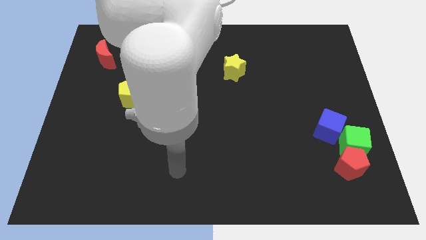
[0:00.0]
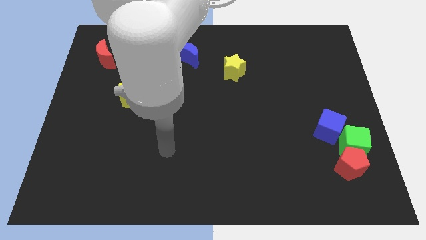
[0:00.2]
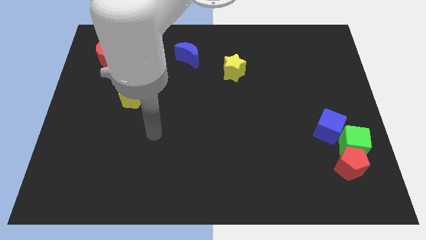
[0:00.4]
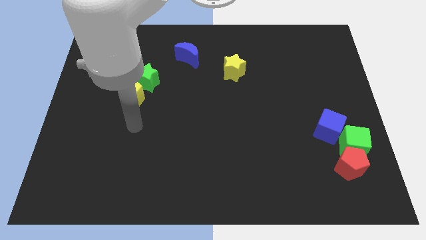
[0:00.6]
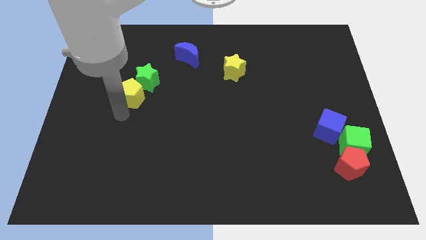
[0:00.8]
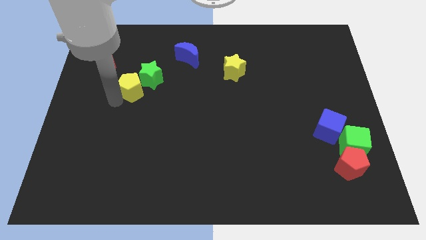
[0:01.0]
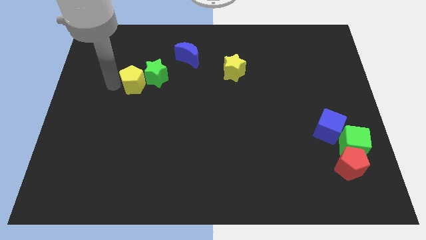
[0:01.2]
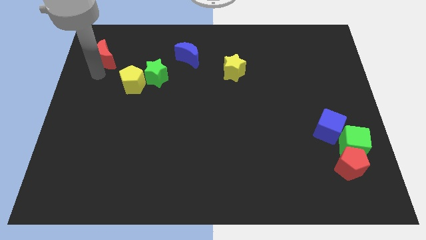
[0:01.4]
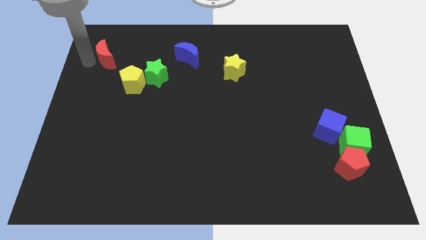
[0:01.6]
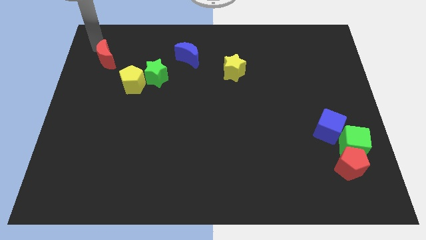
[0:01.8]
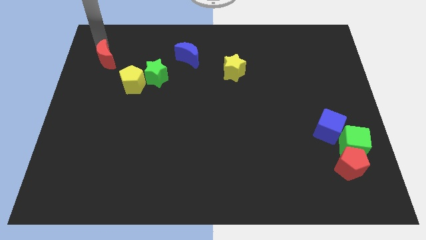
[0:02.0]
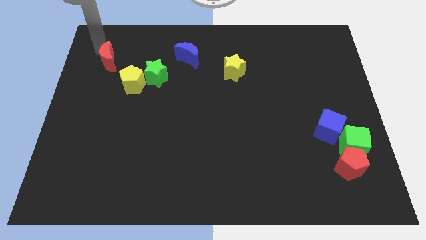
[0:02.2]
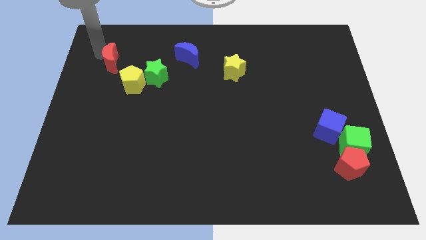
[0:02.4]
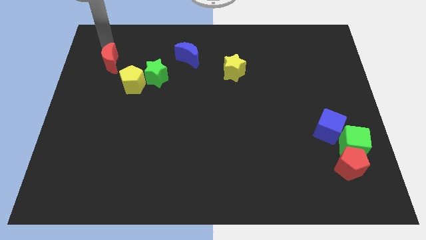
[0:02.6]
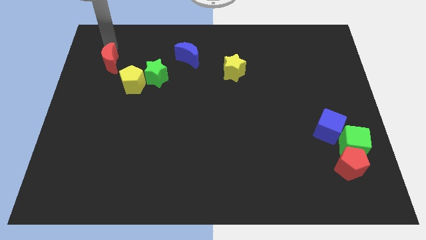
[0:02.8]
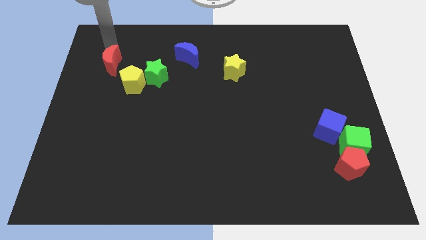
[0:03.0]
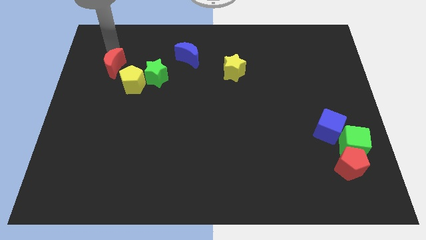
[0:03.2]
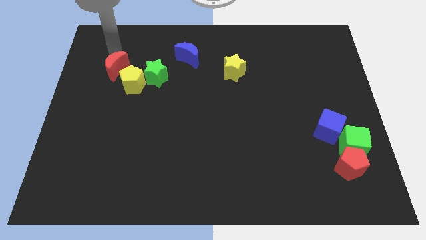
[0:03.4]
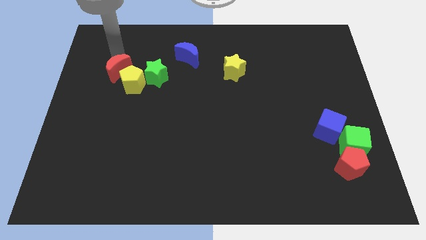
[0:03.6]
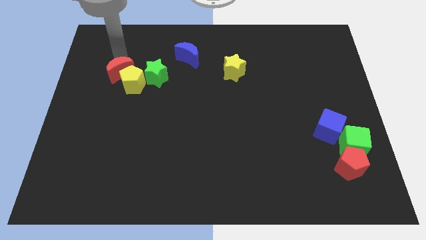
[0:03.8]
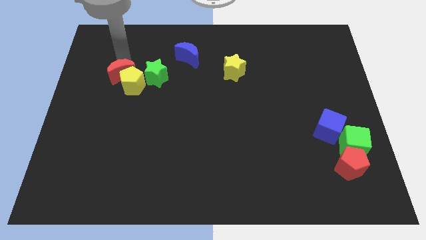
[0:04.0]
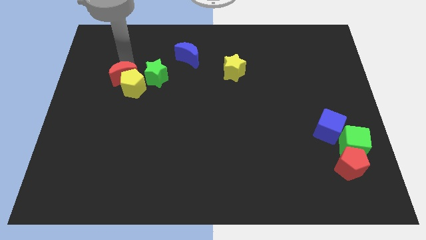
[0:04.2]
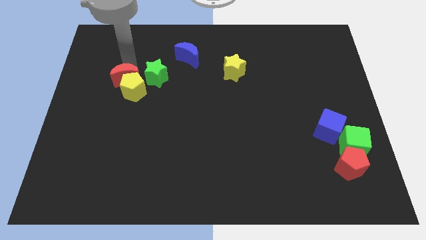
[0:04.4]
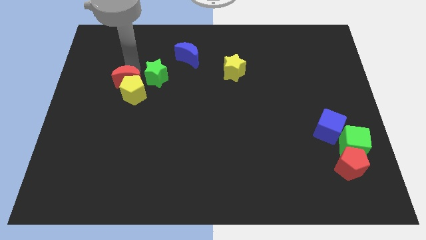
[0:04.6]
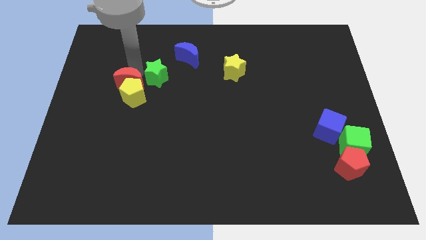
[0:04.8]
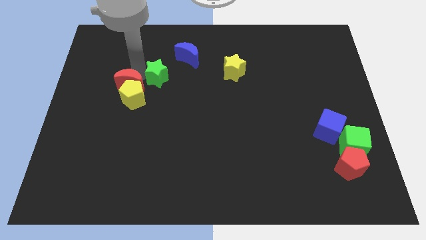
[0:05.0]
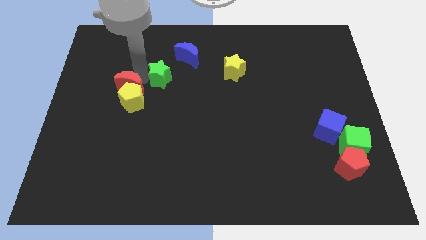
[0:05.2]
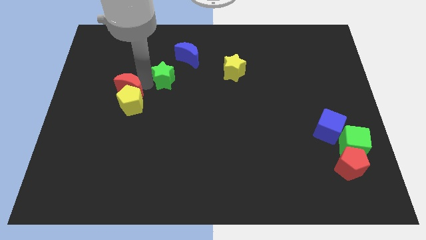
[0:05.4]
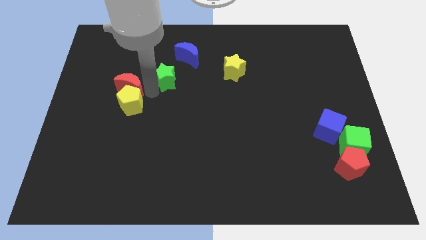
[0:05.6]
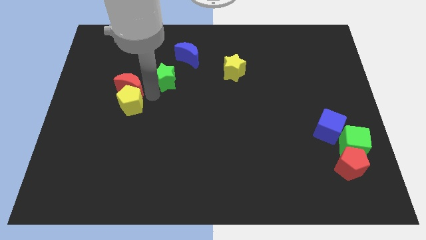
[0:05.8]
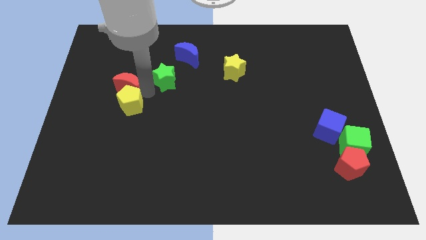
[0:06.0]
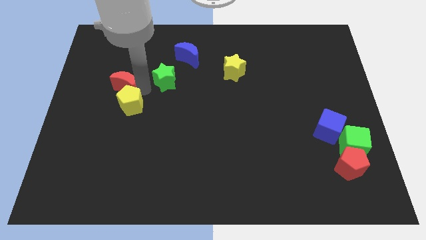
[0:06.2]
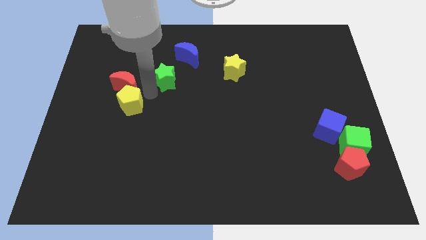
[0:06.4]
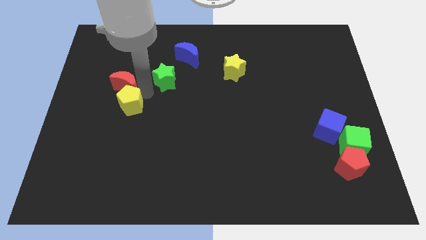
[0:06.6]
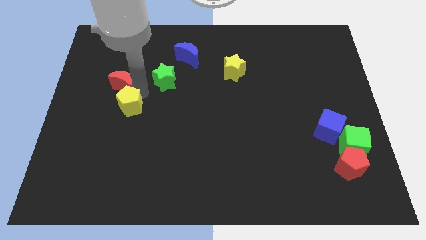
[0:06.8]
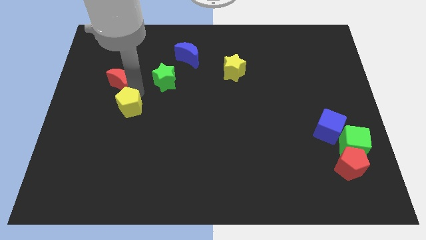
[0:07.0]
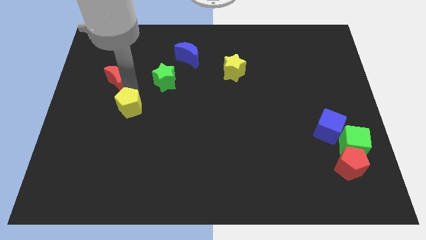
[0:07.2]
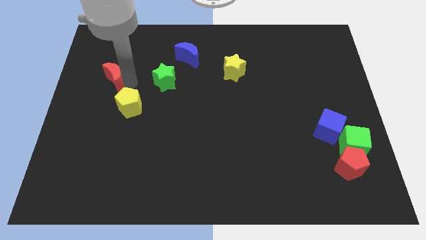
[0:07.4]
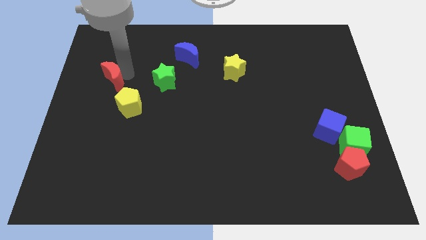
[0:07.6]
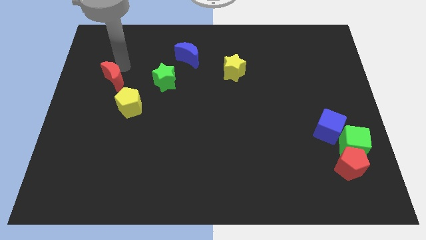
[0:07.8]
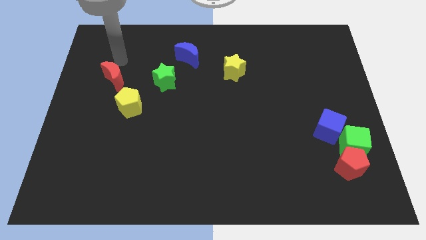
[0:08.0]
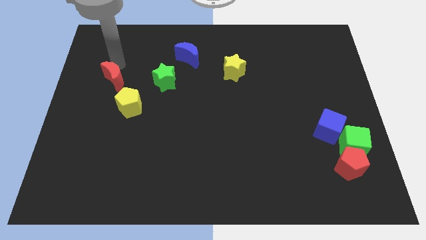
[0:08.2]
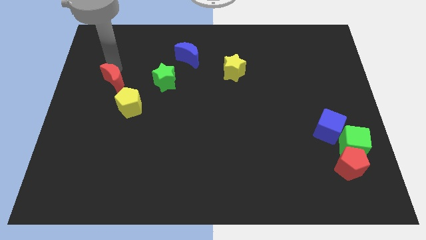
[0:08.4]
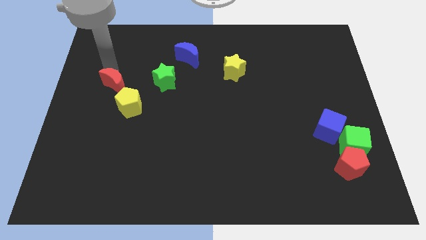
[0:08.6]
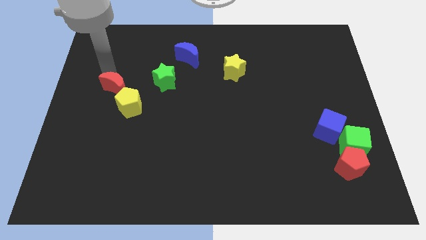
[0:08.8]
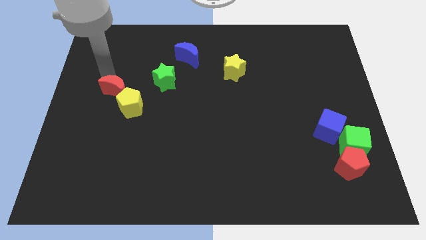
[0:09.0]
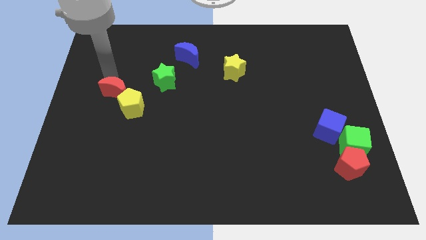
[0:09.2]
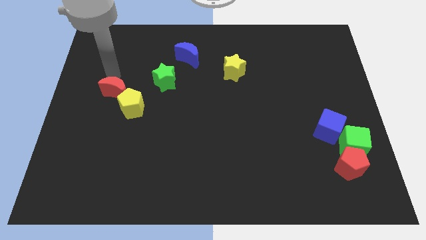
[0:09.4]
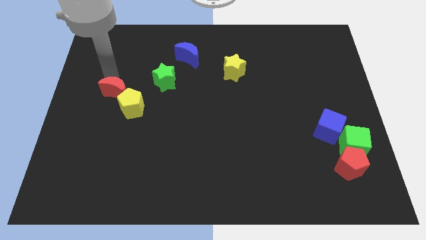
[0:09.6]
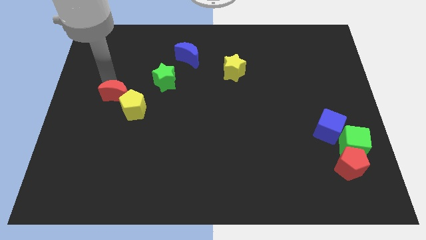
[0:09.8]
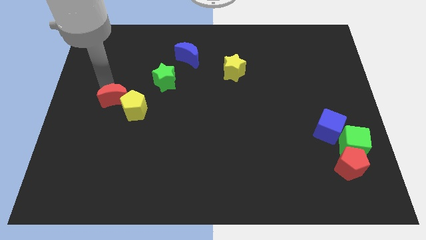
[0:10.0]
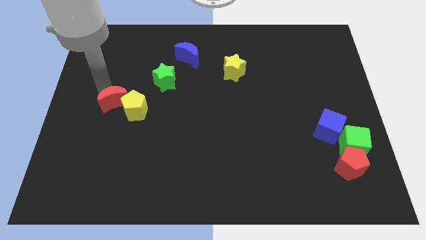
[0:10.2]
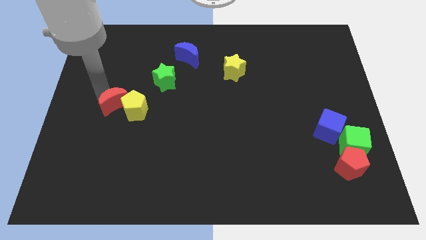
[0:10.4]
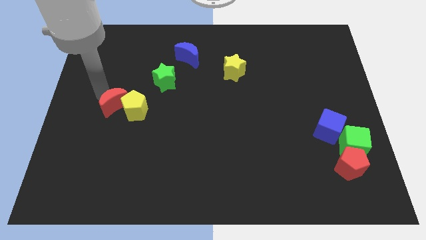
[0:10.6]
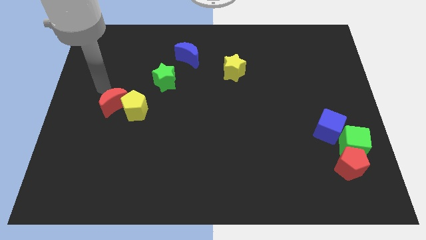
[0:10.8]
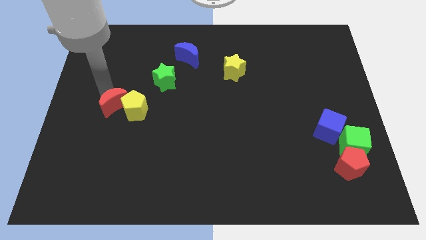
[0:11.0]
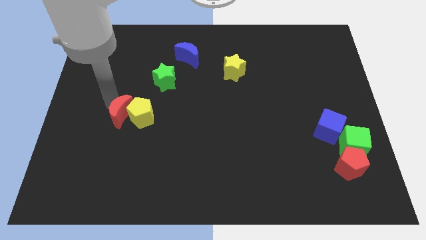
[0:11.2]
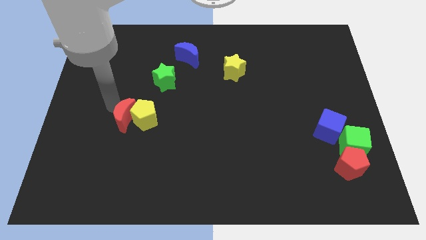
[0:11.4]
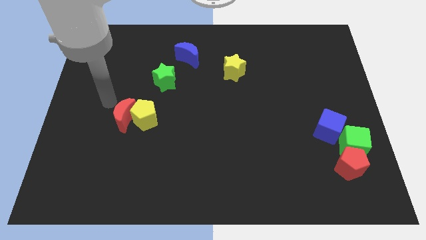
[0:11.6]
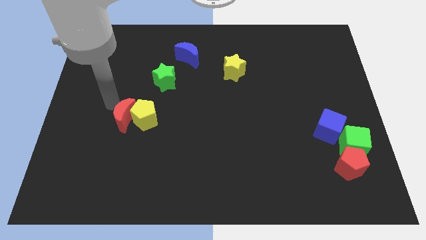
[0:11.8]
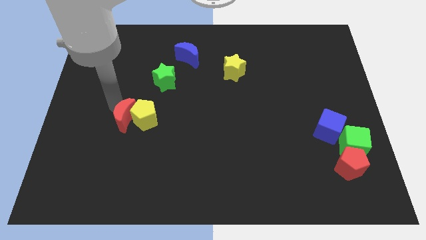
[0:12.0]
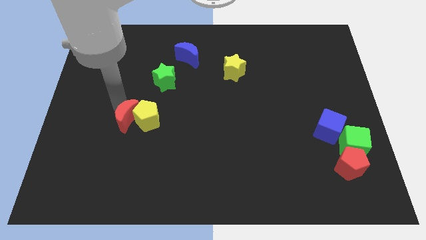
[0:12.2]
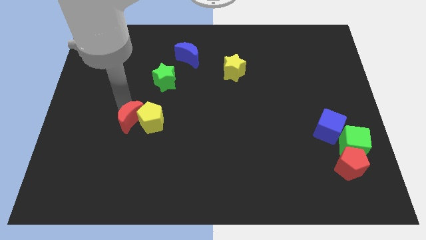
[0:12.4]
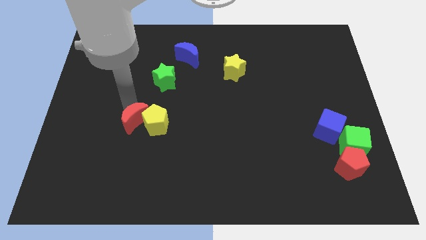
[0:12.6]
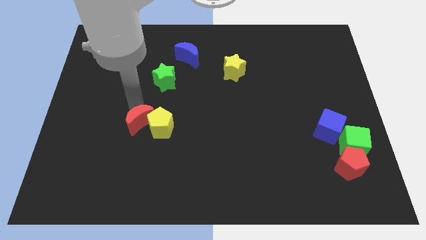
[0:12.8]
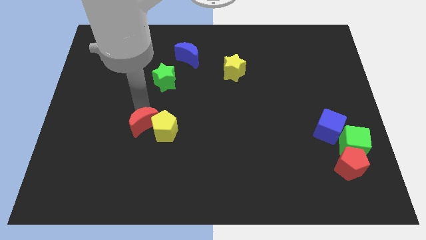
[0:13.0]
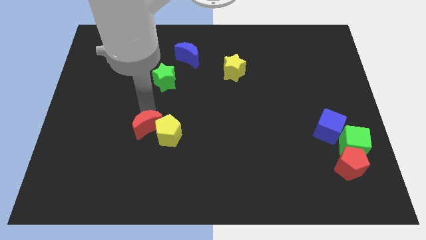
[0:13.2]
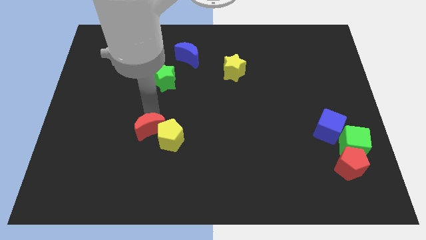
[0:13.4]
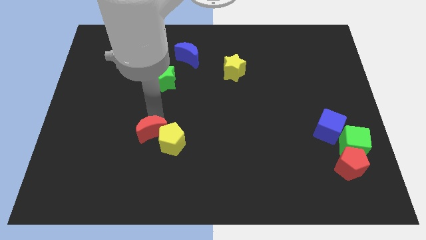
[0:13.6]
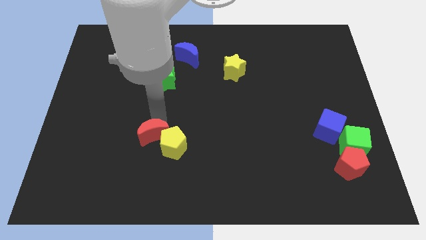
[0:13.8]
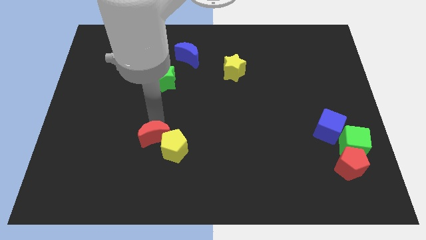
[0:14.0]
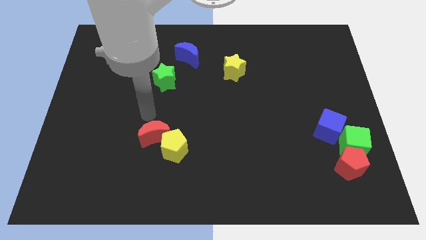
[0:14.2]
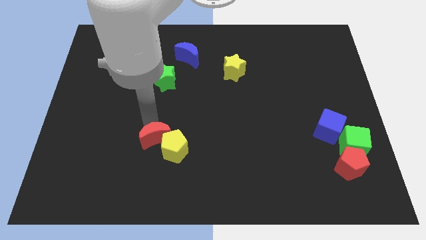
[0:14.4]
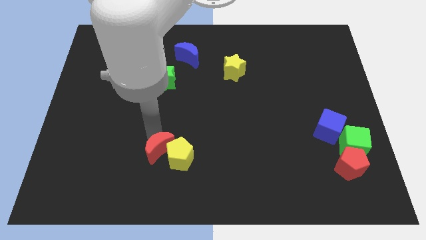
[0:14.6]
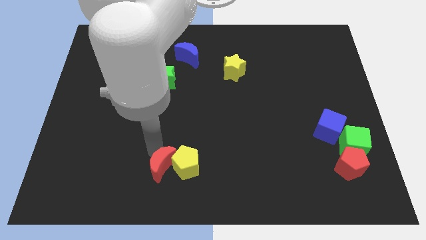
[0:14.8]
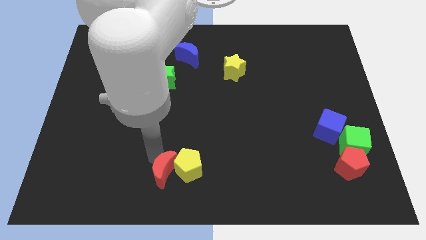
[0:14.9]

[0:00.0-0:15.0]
slide the red moon to the bottom
